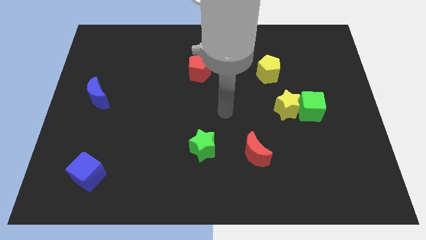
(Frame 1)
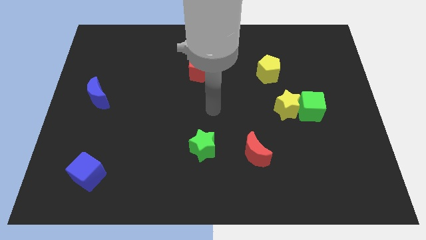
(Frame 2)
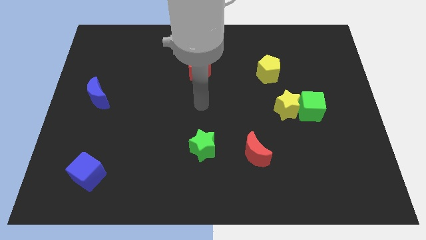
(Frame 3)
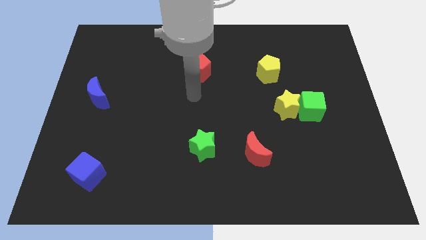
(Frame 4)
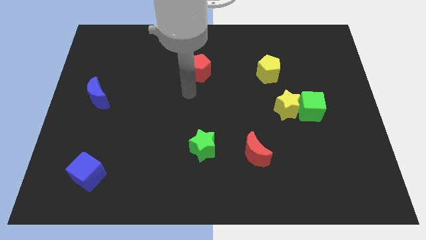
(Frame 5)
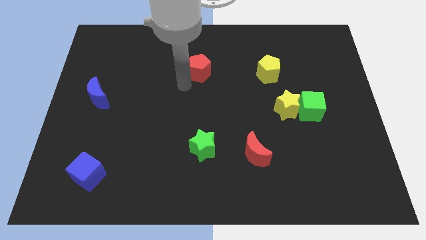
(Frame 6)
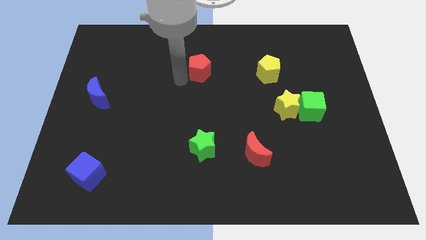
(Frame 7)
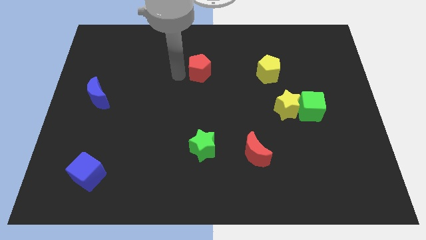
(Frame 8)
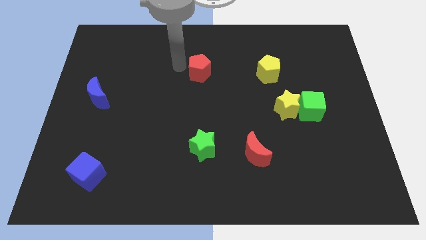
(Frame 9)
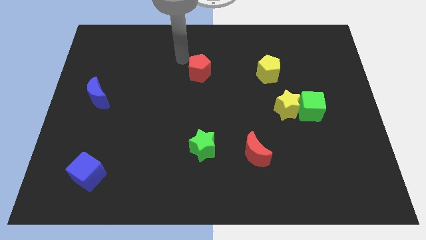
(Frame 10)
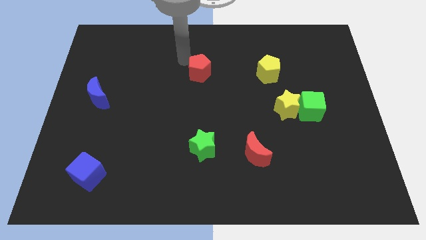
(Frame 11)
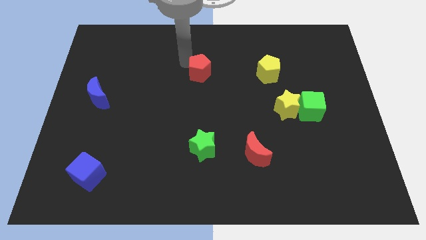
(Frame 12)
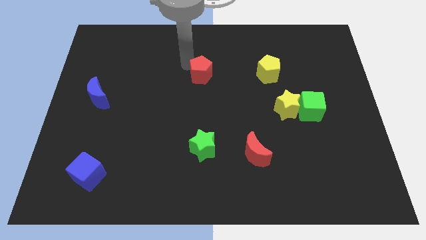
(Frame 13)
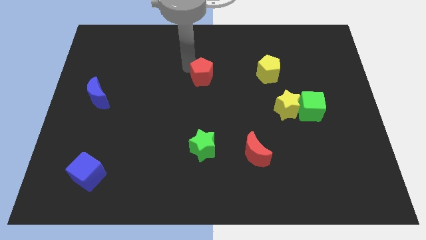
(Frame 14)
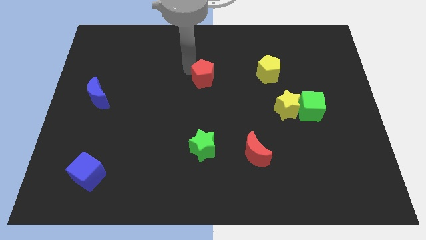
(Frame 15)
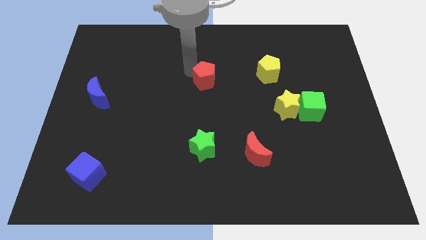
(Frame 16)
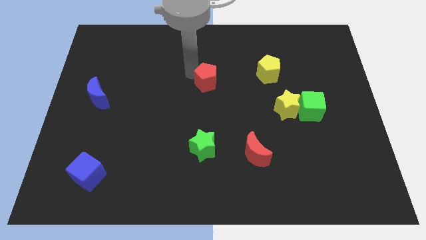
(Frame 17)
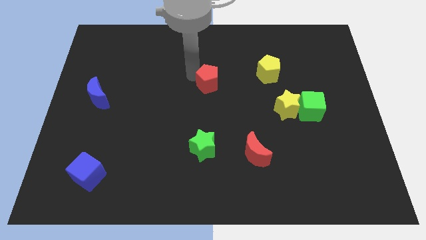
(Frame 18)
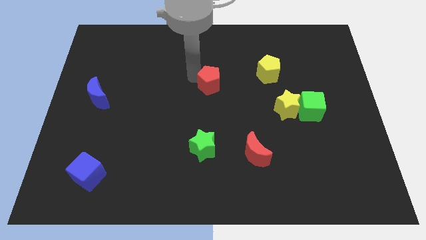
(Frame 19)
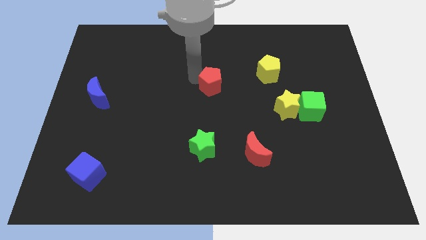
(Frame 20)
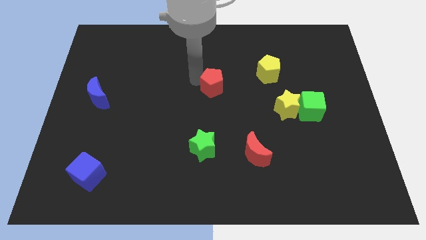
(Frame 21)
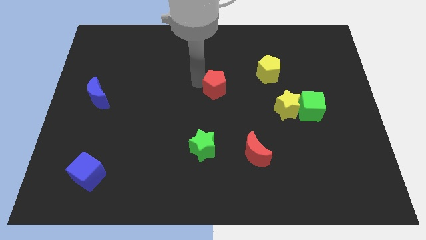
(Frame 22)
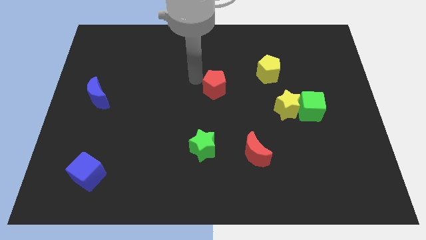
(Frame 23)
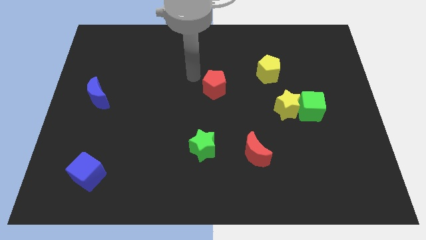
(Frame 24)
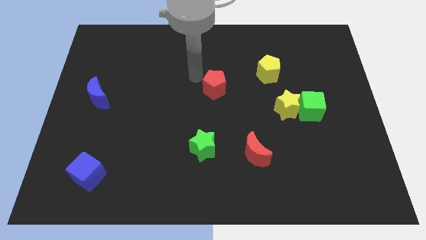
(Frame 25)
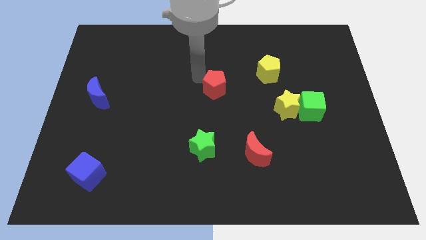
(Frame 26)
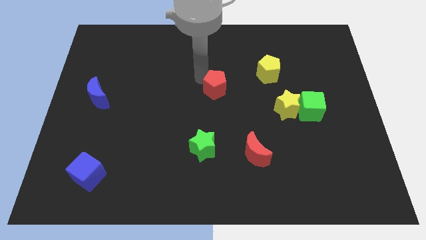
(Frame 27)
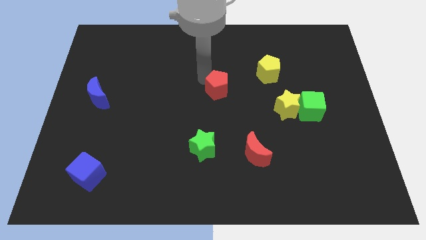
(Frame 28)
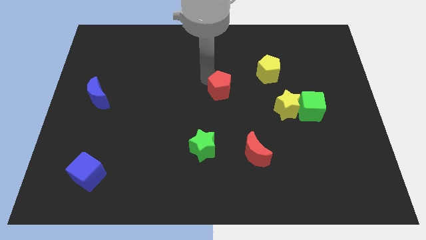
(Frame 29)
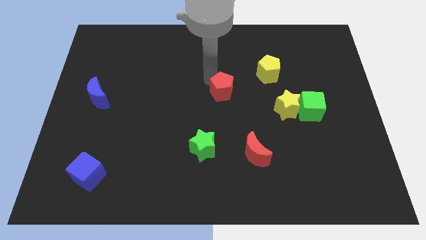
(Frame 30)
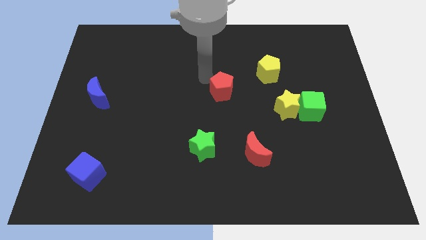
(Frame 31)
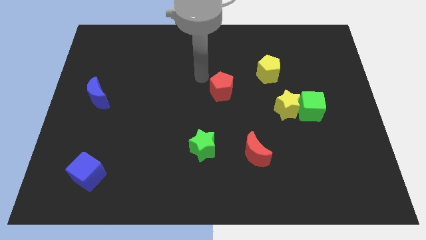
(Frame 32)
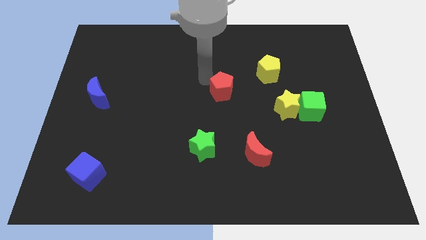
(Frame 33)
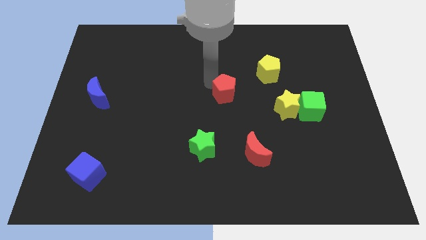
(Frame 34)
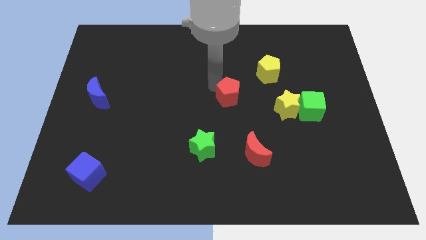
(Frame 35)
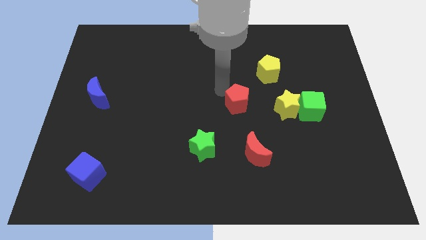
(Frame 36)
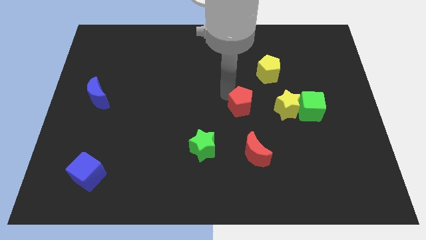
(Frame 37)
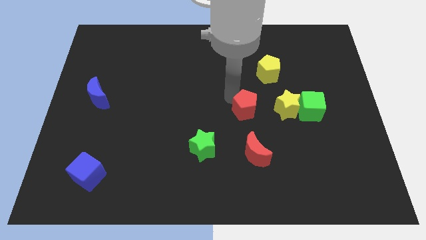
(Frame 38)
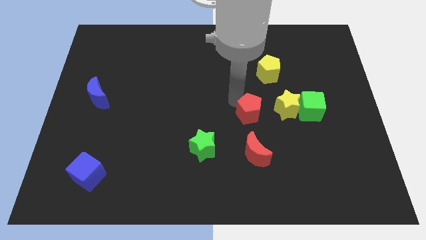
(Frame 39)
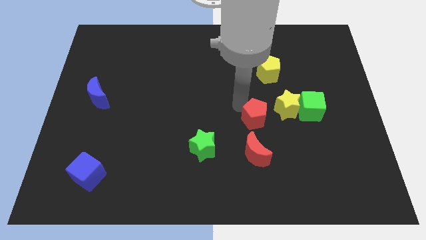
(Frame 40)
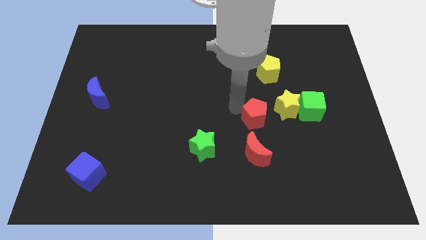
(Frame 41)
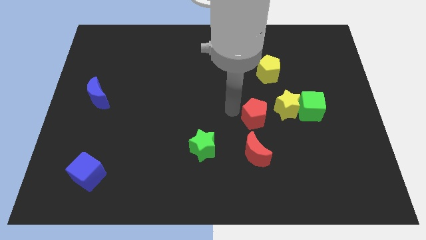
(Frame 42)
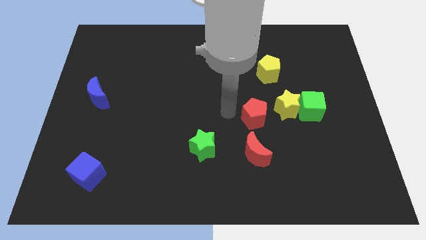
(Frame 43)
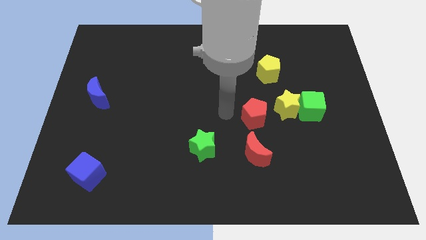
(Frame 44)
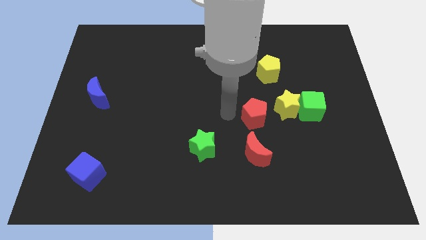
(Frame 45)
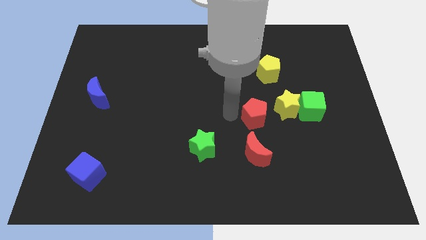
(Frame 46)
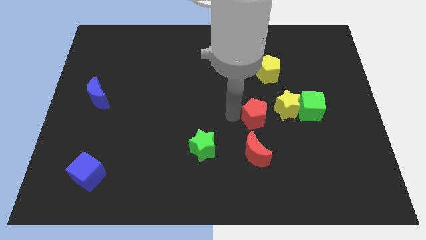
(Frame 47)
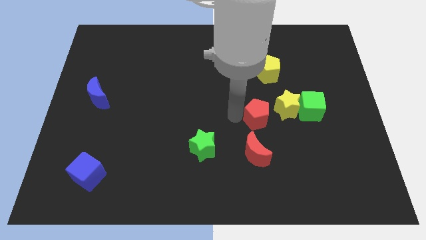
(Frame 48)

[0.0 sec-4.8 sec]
move the red pentagon diagonally down and to the right

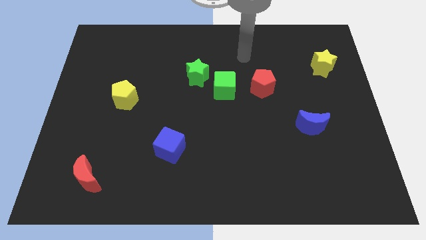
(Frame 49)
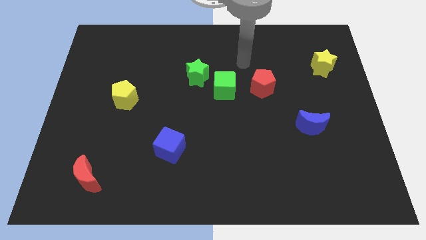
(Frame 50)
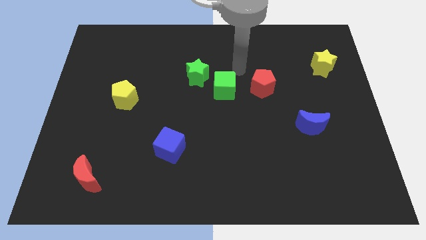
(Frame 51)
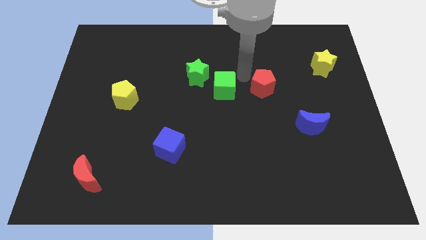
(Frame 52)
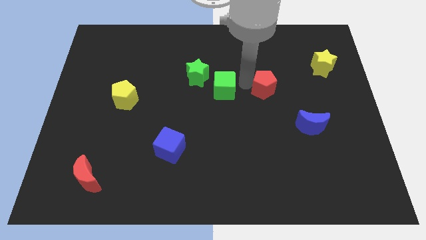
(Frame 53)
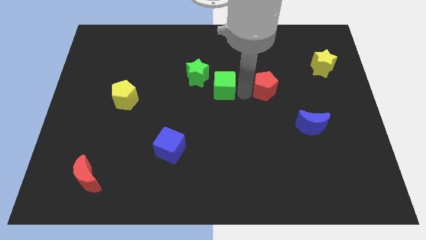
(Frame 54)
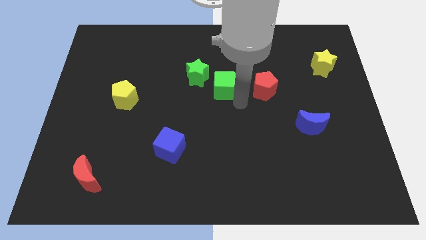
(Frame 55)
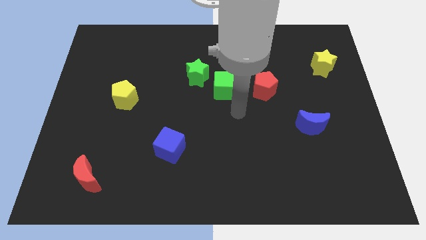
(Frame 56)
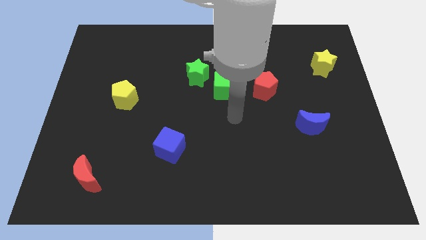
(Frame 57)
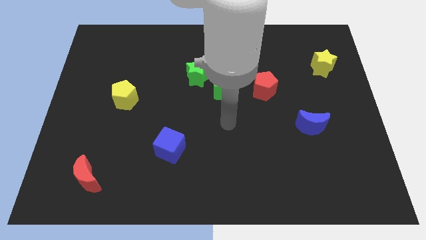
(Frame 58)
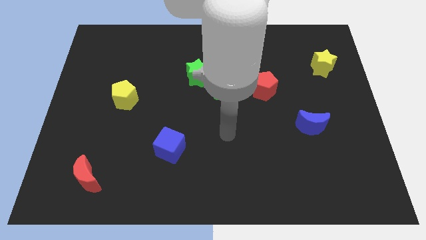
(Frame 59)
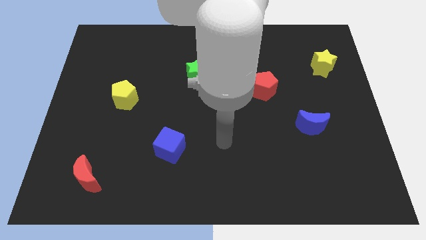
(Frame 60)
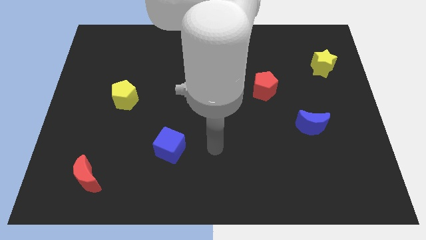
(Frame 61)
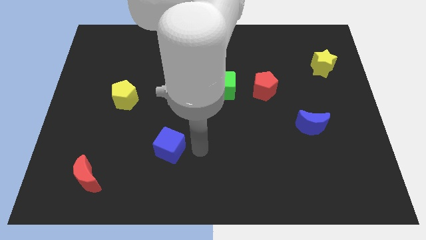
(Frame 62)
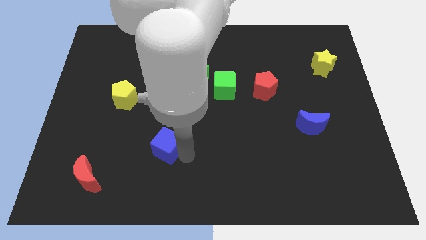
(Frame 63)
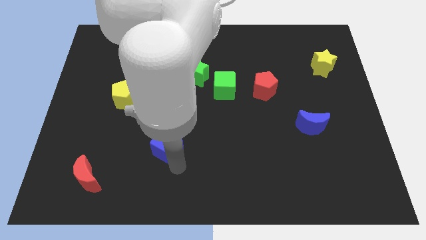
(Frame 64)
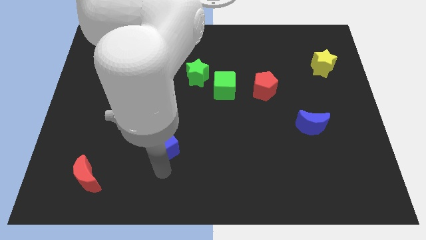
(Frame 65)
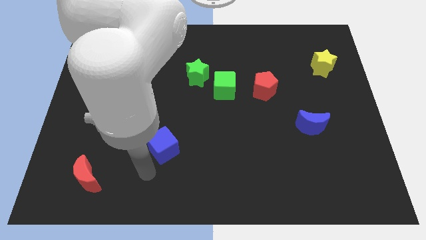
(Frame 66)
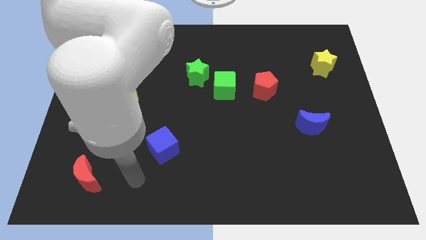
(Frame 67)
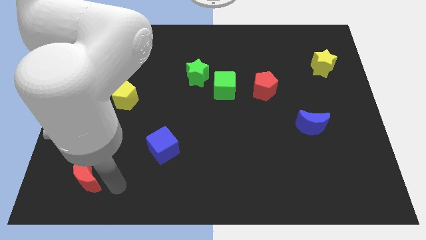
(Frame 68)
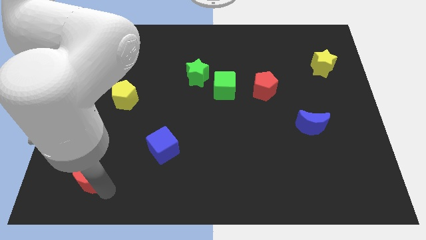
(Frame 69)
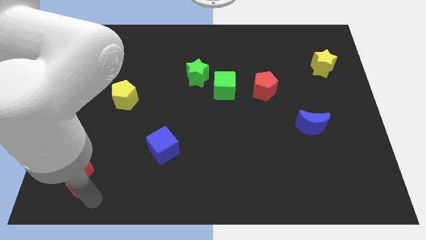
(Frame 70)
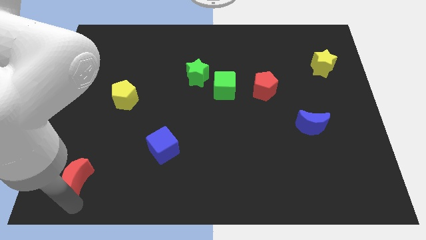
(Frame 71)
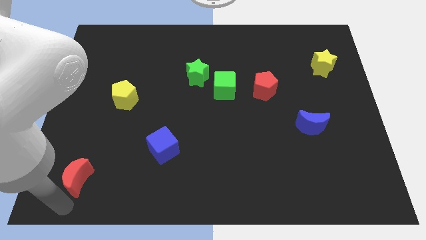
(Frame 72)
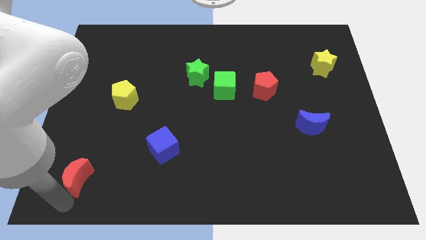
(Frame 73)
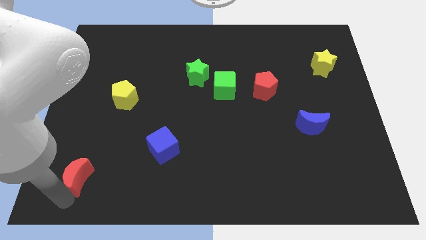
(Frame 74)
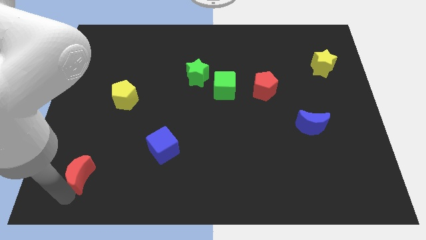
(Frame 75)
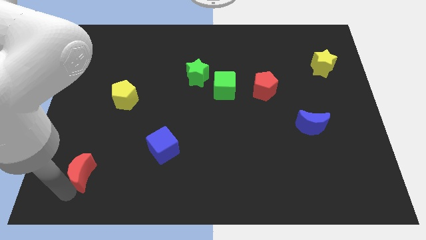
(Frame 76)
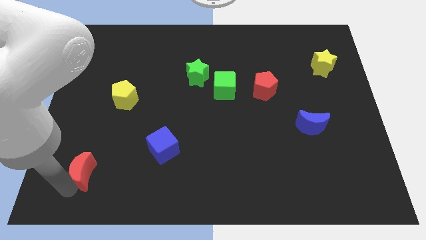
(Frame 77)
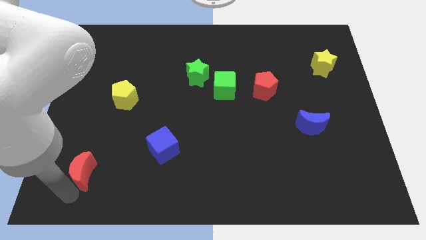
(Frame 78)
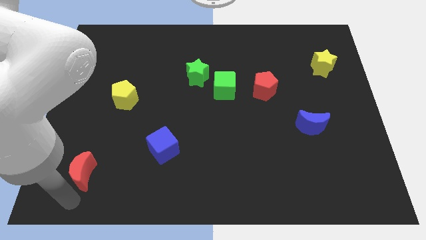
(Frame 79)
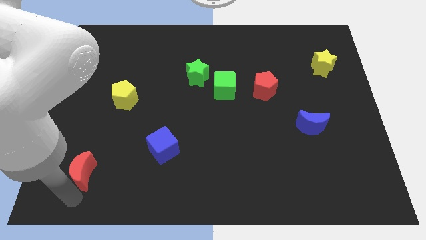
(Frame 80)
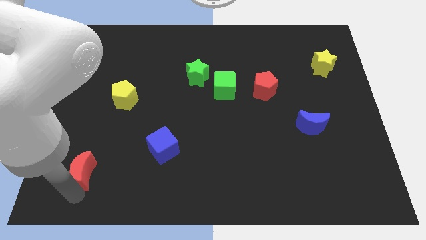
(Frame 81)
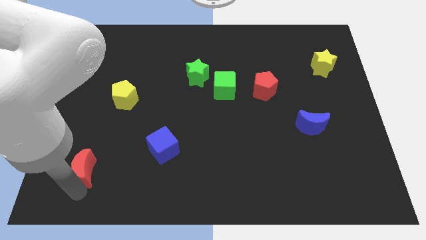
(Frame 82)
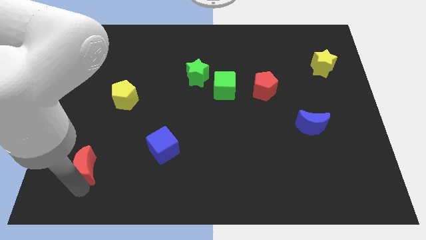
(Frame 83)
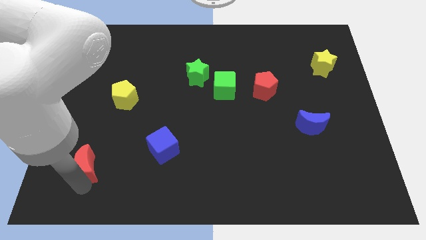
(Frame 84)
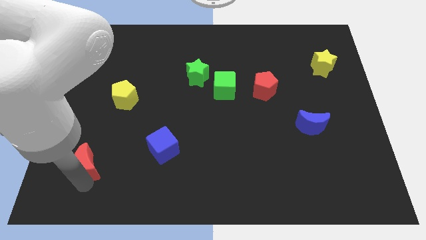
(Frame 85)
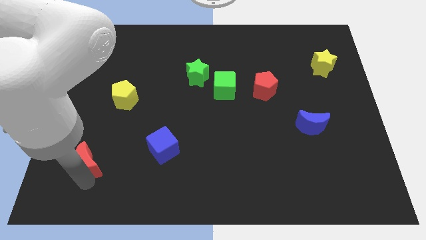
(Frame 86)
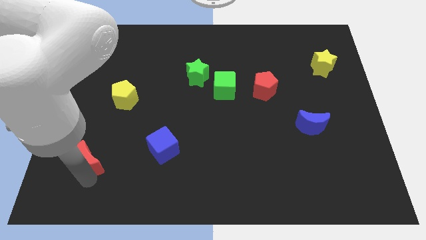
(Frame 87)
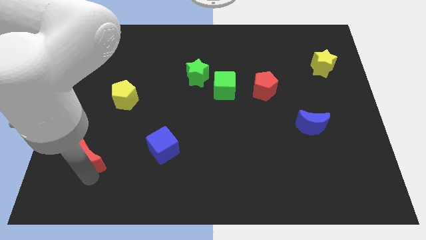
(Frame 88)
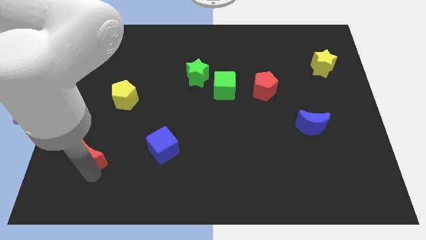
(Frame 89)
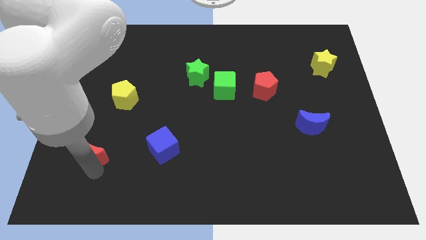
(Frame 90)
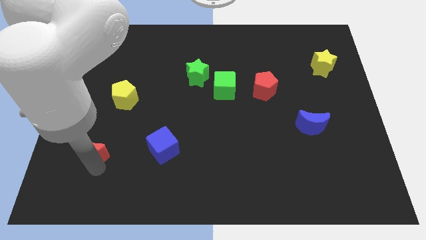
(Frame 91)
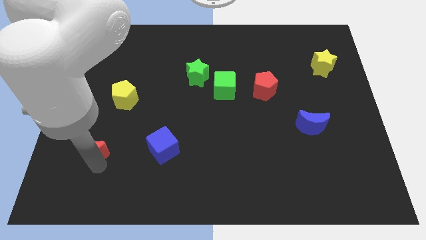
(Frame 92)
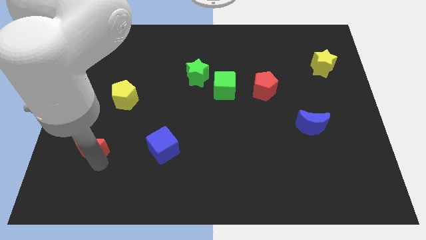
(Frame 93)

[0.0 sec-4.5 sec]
slightly push the red moon up
